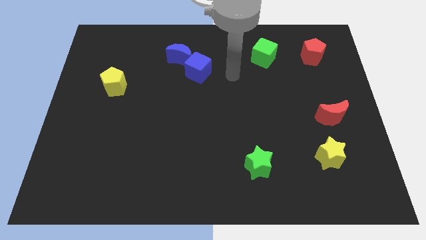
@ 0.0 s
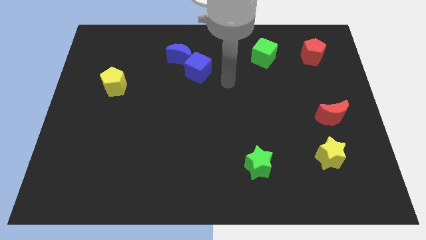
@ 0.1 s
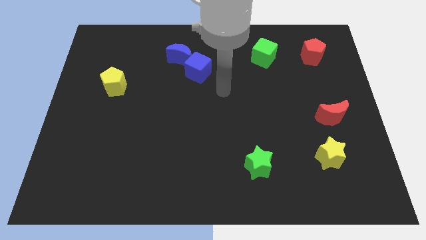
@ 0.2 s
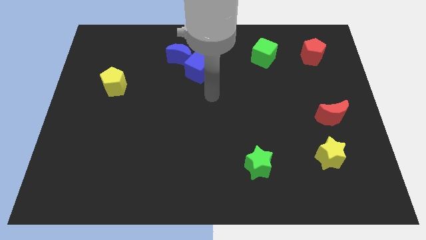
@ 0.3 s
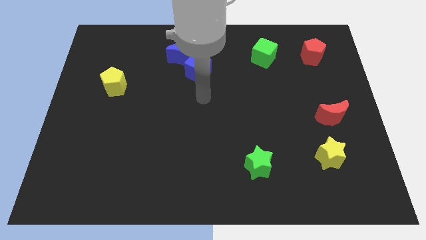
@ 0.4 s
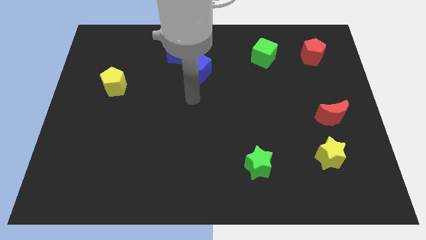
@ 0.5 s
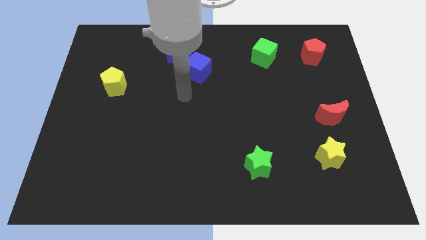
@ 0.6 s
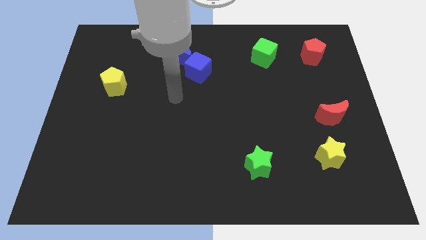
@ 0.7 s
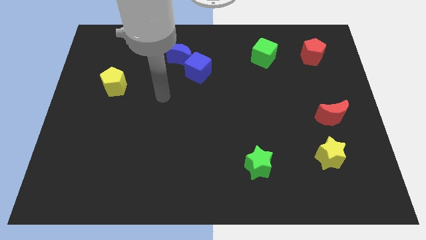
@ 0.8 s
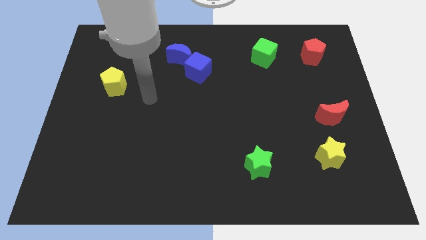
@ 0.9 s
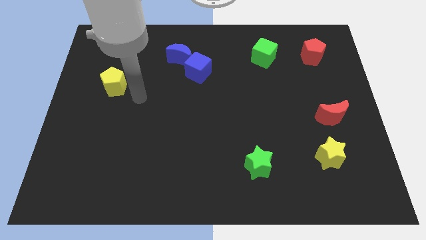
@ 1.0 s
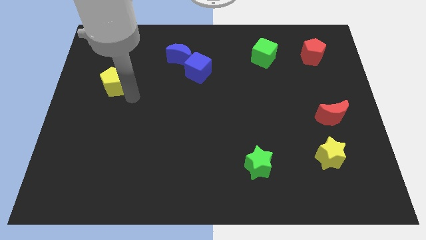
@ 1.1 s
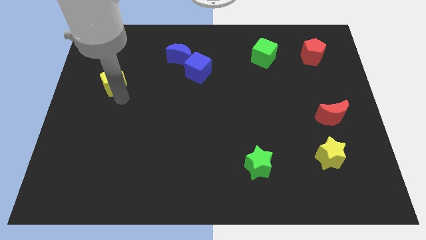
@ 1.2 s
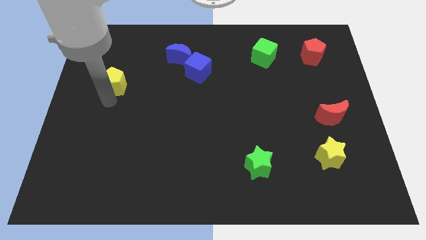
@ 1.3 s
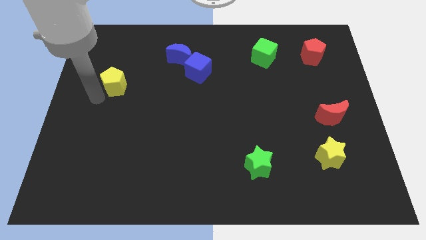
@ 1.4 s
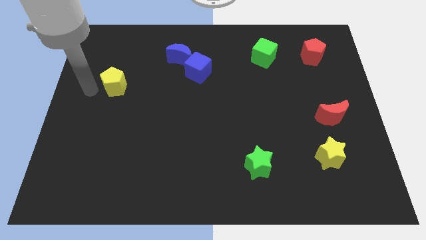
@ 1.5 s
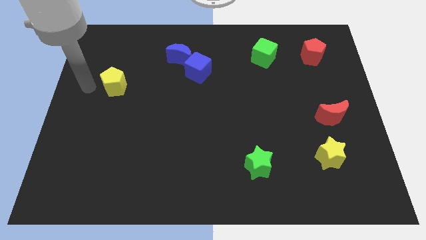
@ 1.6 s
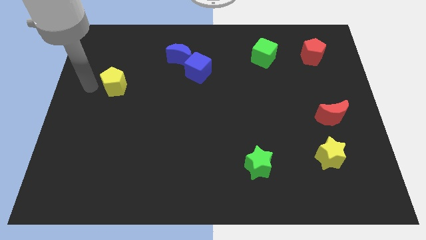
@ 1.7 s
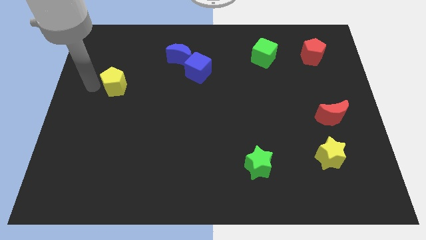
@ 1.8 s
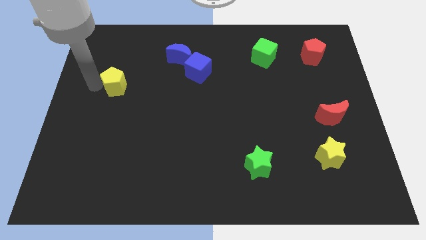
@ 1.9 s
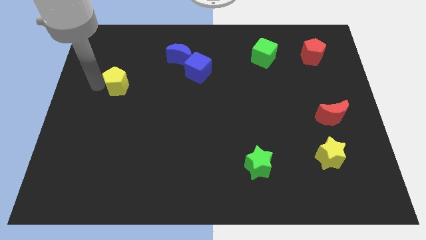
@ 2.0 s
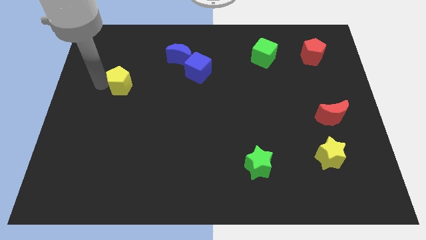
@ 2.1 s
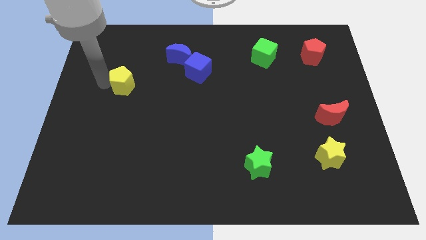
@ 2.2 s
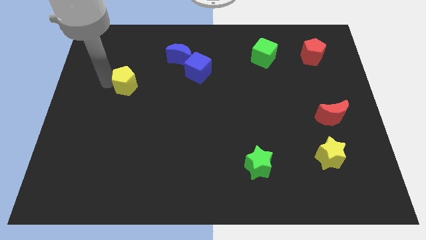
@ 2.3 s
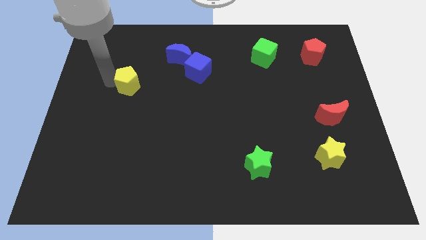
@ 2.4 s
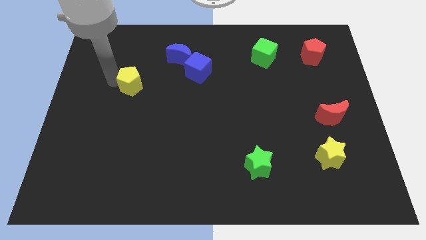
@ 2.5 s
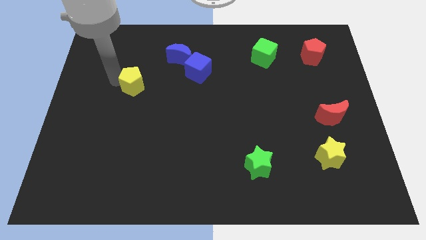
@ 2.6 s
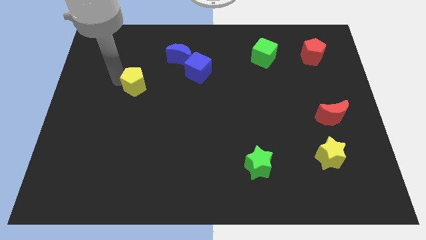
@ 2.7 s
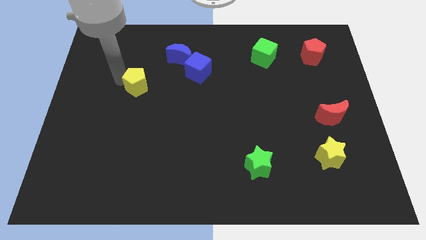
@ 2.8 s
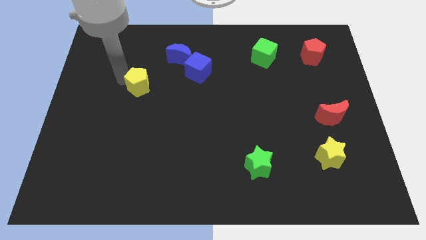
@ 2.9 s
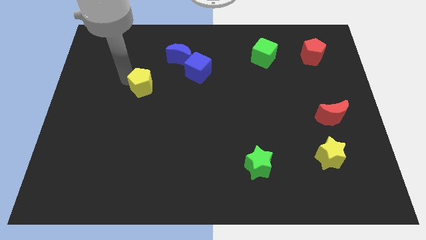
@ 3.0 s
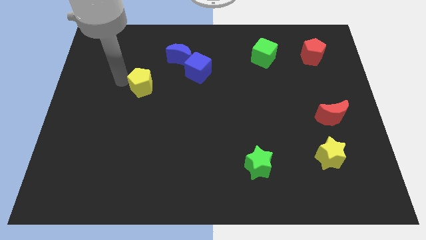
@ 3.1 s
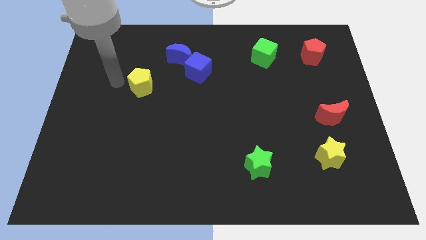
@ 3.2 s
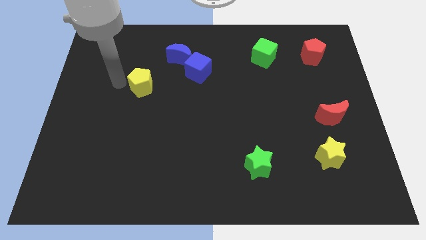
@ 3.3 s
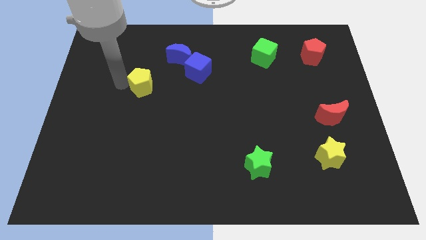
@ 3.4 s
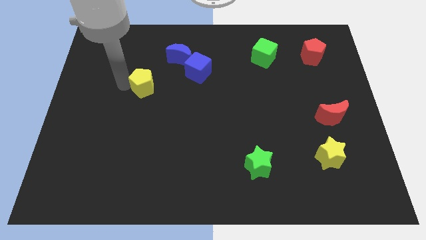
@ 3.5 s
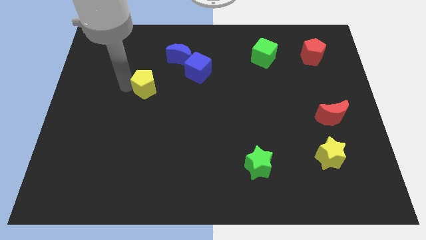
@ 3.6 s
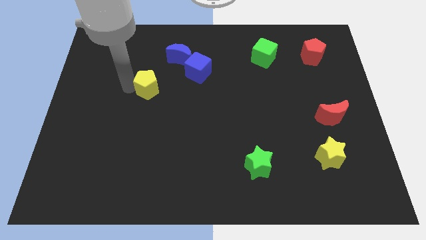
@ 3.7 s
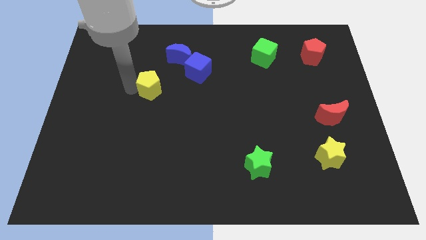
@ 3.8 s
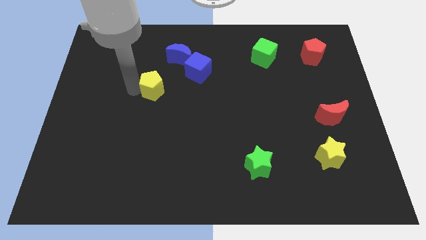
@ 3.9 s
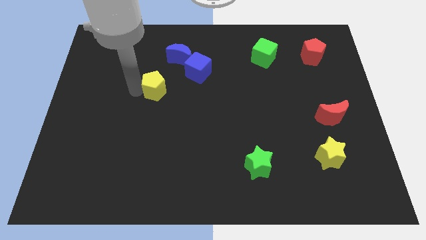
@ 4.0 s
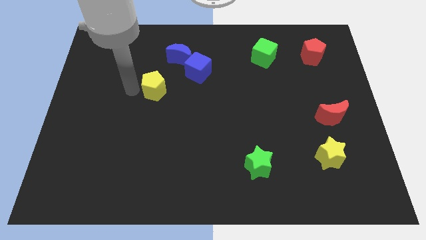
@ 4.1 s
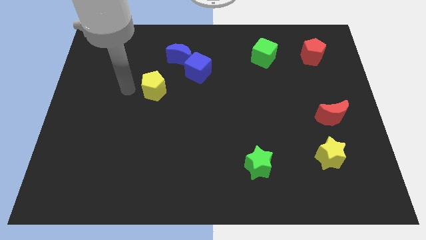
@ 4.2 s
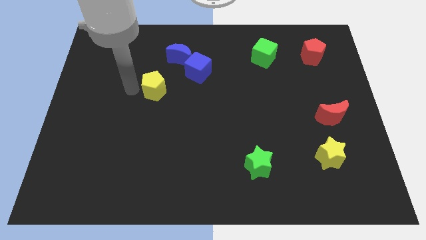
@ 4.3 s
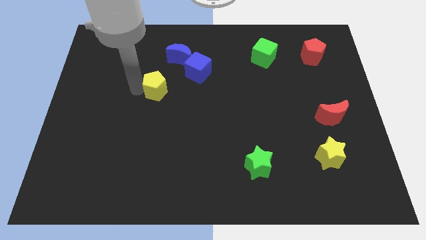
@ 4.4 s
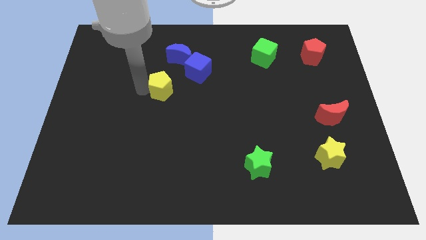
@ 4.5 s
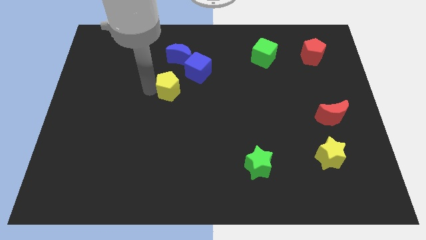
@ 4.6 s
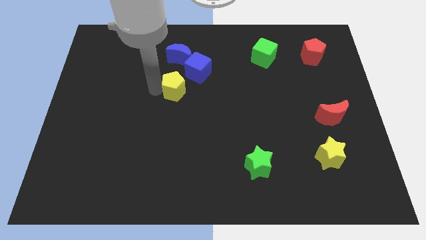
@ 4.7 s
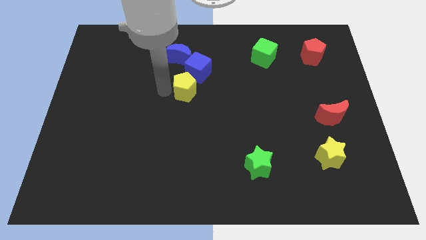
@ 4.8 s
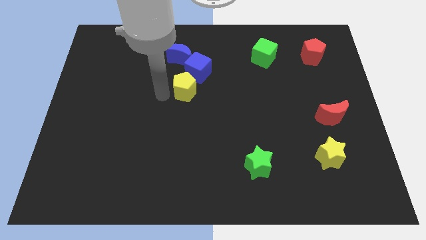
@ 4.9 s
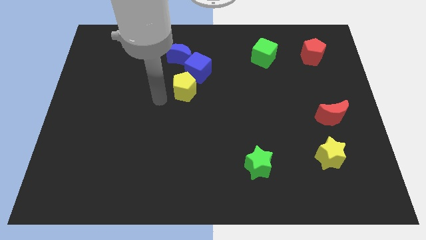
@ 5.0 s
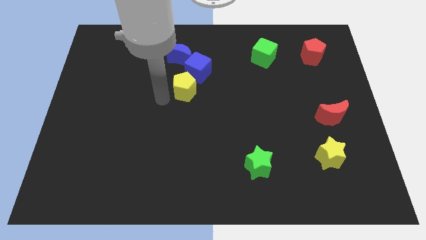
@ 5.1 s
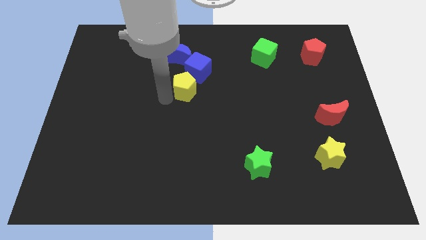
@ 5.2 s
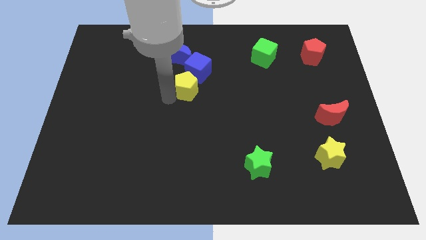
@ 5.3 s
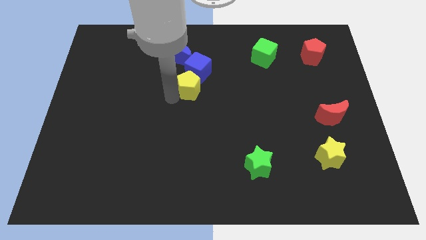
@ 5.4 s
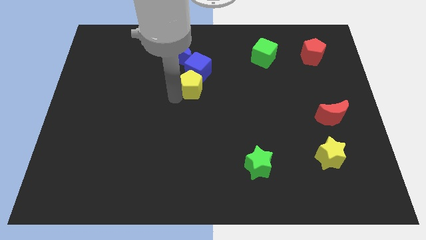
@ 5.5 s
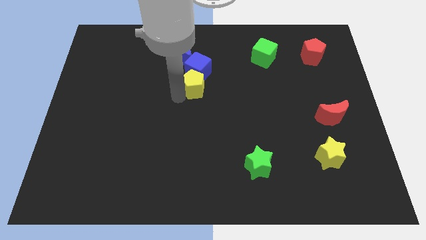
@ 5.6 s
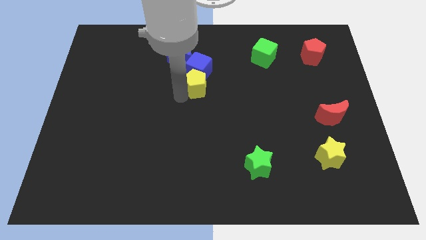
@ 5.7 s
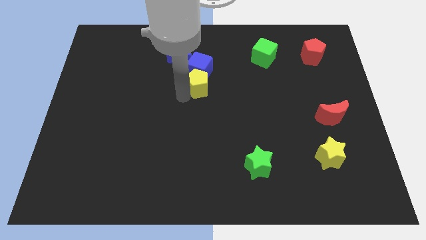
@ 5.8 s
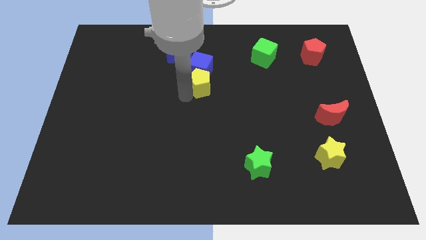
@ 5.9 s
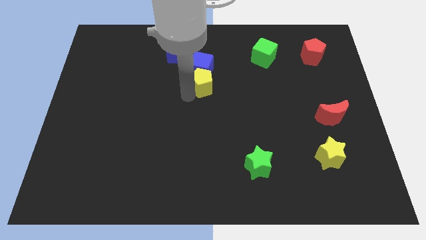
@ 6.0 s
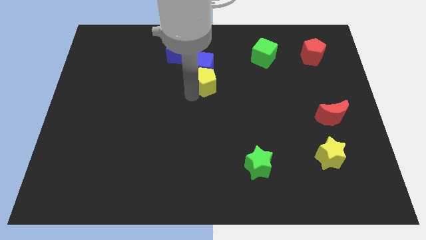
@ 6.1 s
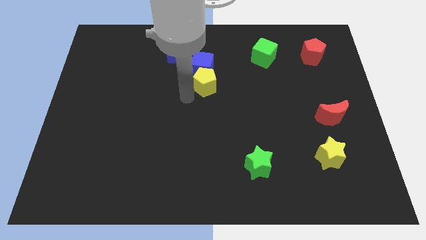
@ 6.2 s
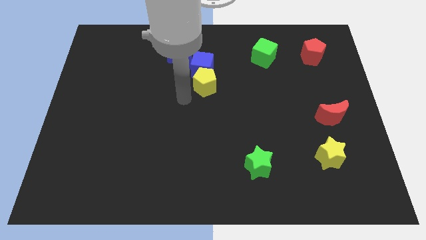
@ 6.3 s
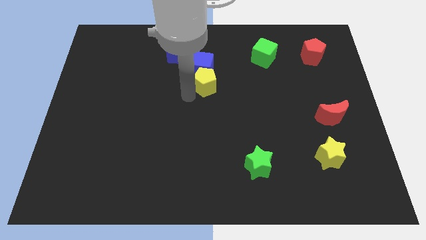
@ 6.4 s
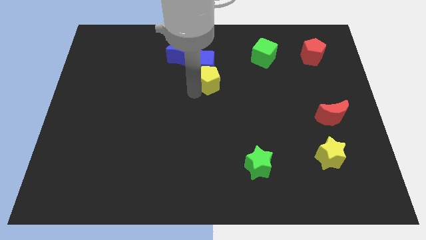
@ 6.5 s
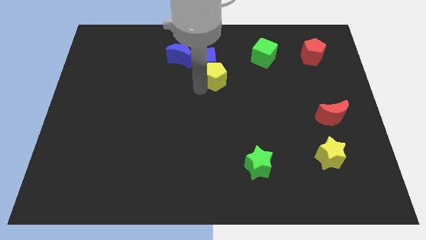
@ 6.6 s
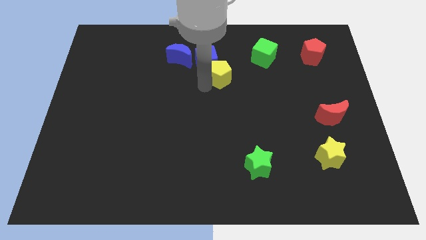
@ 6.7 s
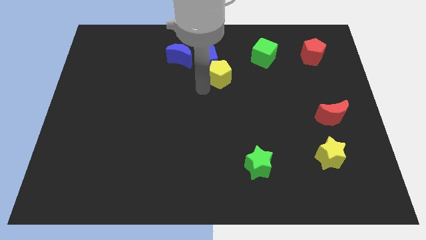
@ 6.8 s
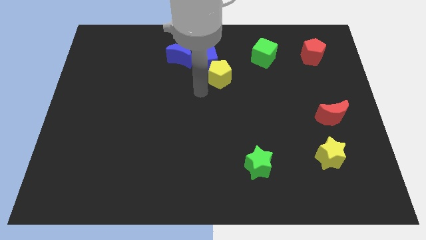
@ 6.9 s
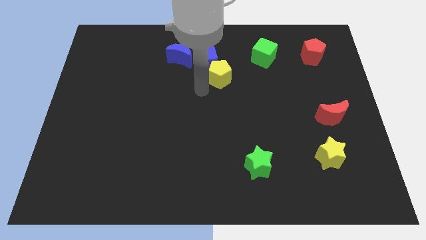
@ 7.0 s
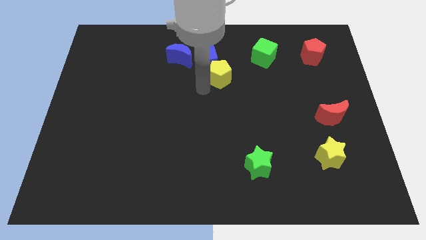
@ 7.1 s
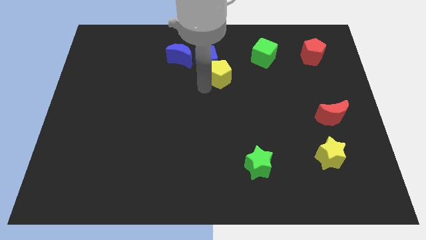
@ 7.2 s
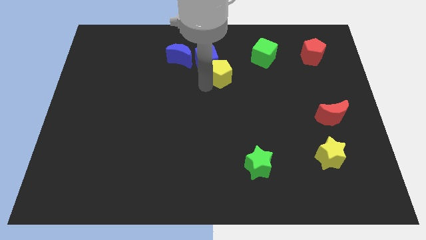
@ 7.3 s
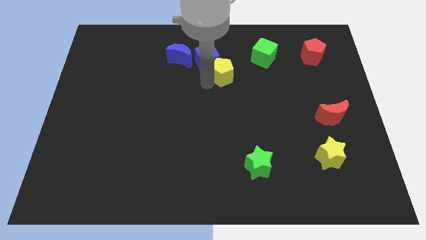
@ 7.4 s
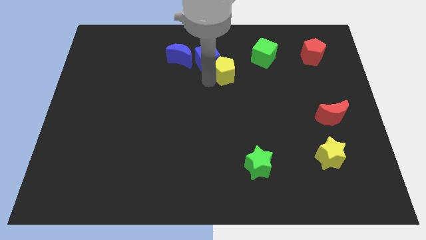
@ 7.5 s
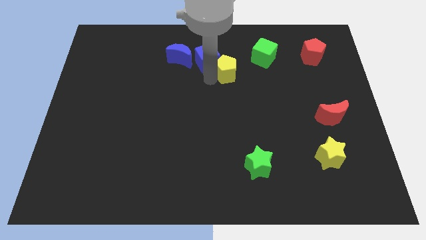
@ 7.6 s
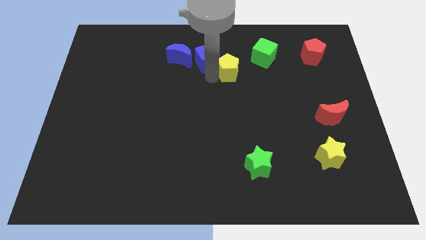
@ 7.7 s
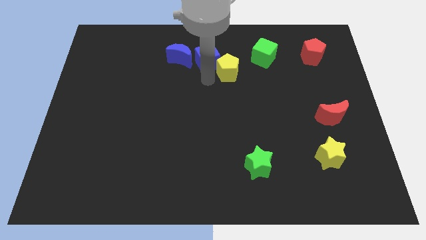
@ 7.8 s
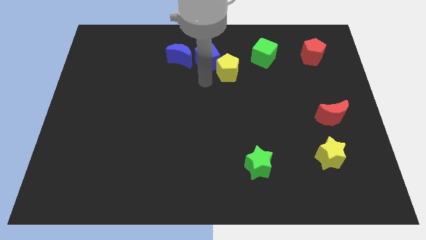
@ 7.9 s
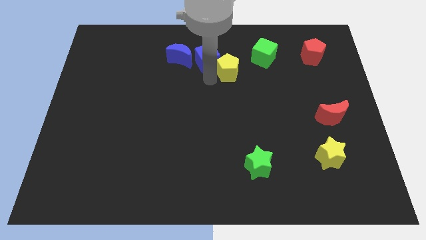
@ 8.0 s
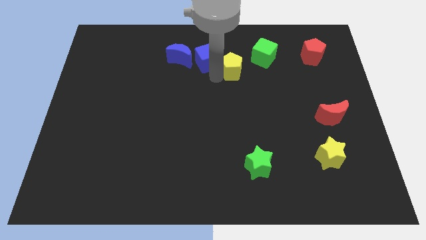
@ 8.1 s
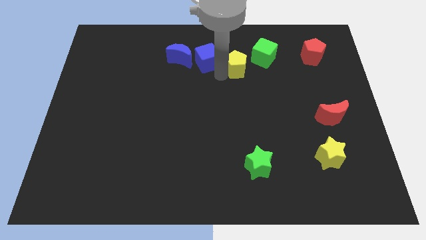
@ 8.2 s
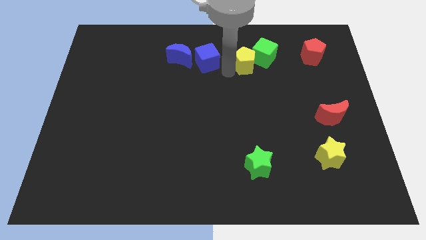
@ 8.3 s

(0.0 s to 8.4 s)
put the yellow pentagon to the green cube
